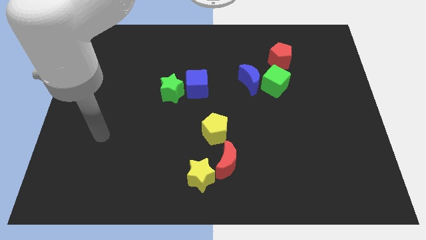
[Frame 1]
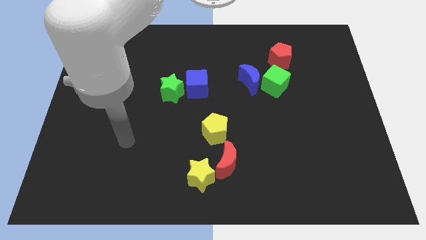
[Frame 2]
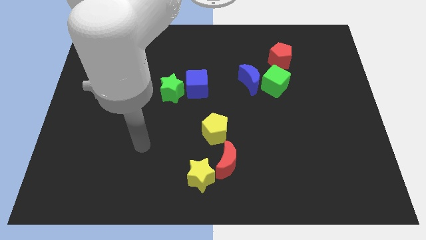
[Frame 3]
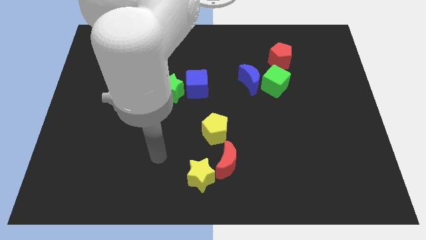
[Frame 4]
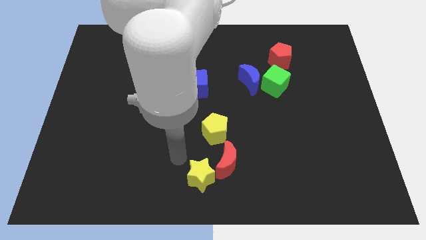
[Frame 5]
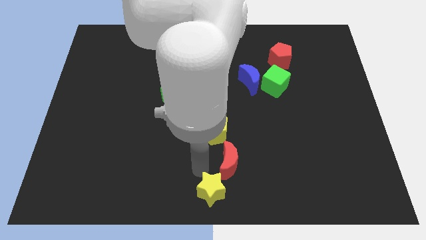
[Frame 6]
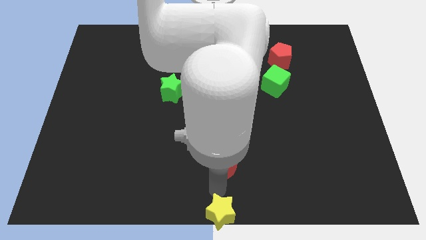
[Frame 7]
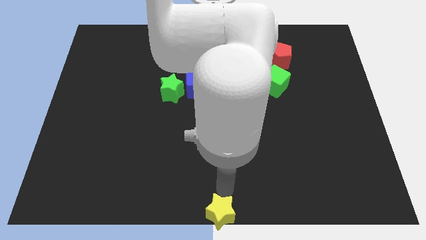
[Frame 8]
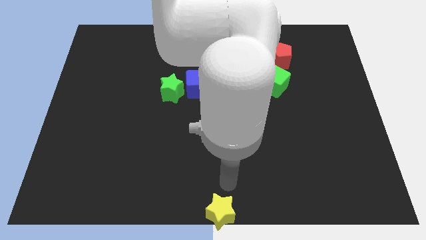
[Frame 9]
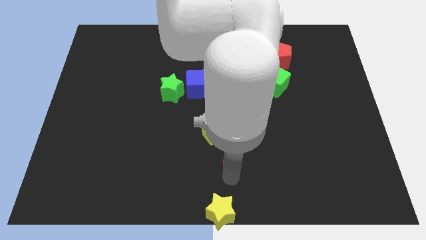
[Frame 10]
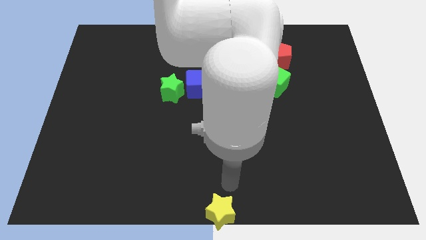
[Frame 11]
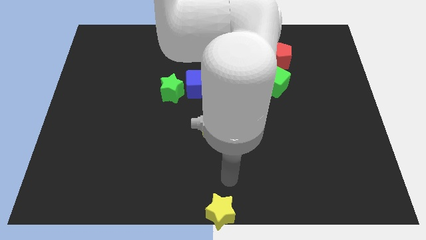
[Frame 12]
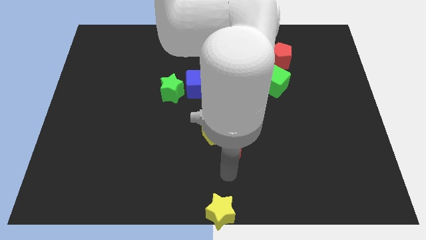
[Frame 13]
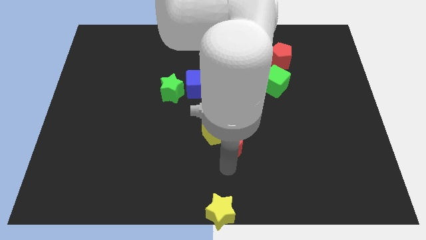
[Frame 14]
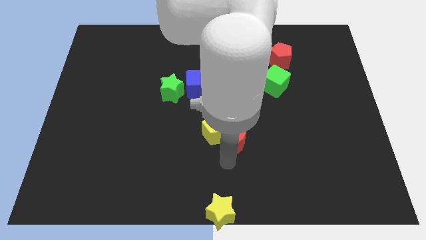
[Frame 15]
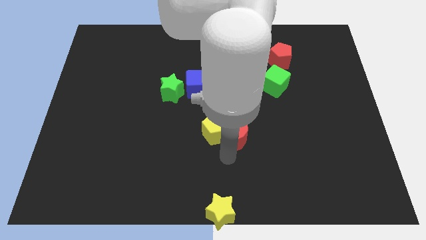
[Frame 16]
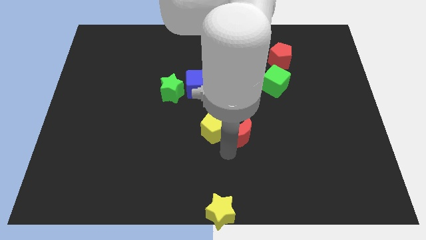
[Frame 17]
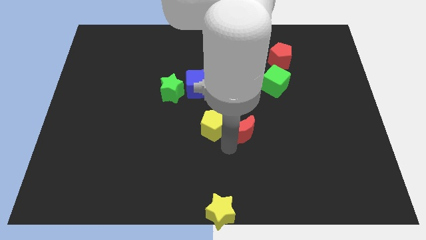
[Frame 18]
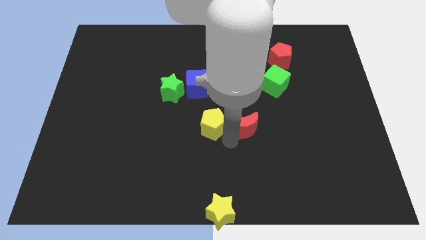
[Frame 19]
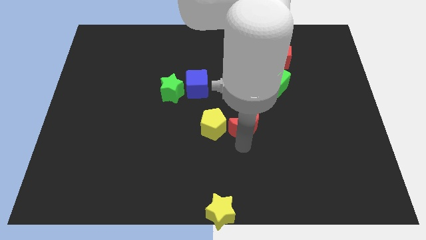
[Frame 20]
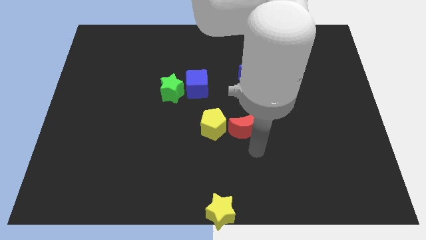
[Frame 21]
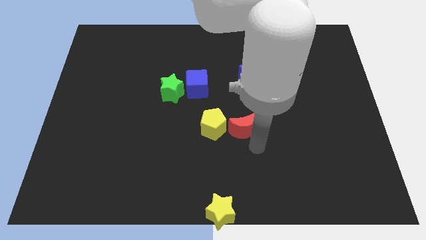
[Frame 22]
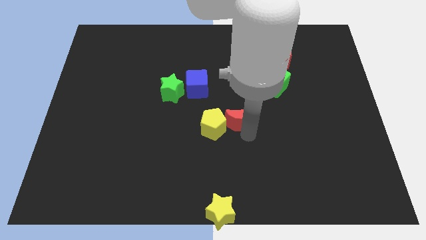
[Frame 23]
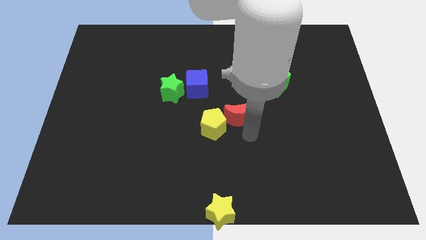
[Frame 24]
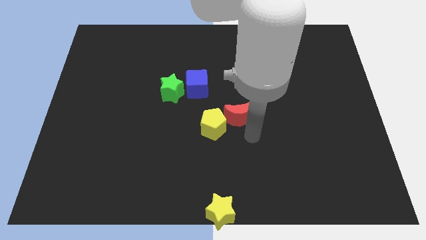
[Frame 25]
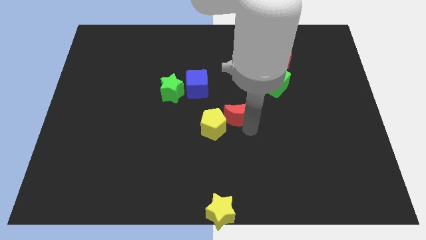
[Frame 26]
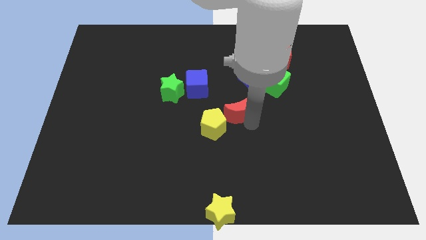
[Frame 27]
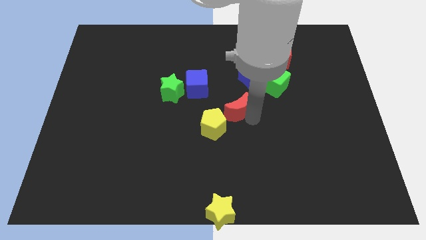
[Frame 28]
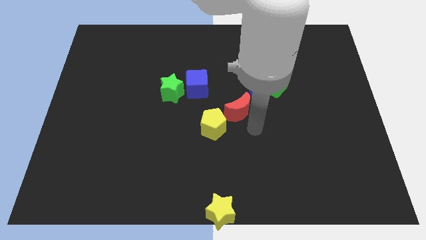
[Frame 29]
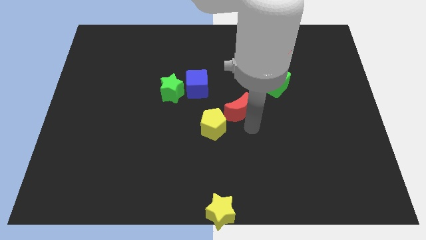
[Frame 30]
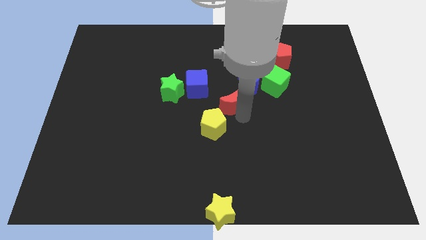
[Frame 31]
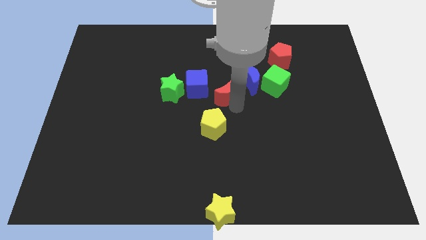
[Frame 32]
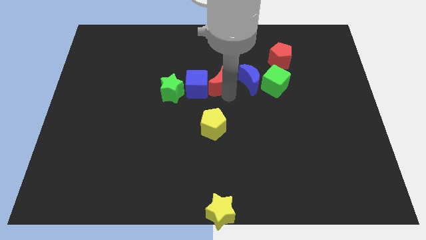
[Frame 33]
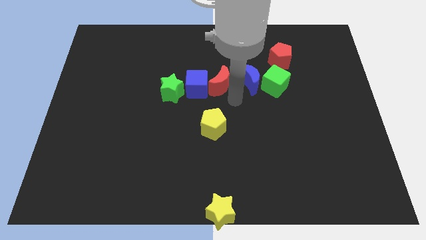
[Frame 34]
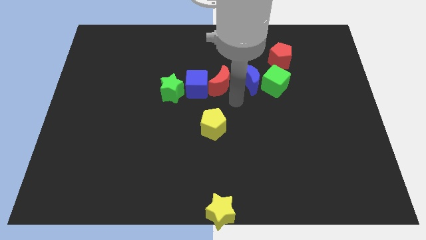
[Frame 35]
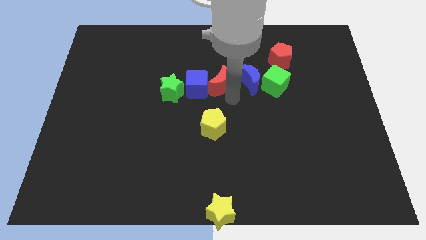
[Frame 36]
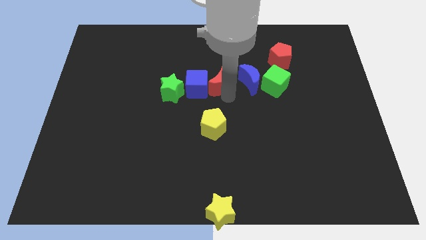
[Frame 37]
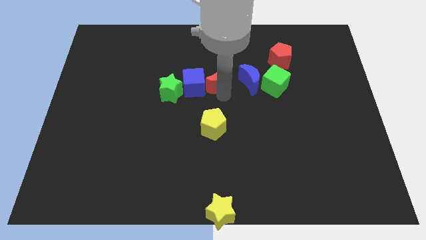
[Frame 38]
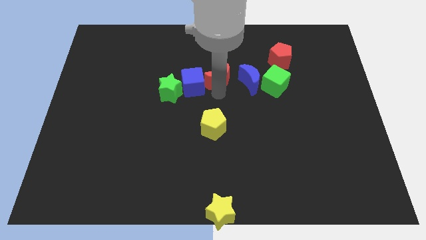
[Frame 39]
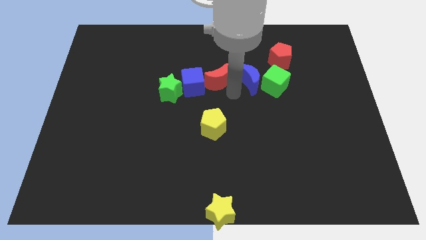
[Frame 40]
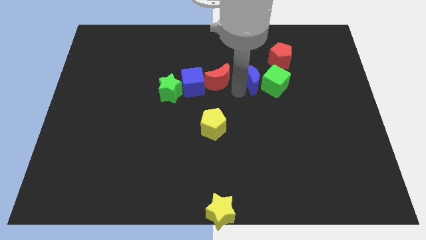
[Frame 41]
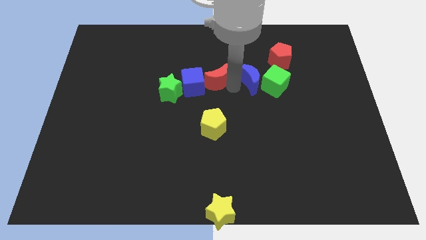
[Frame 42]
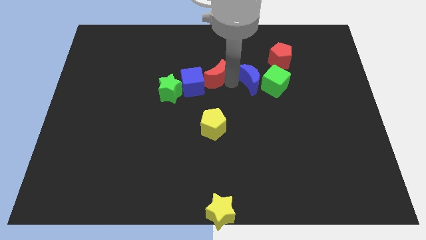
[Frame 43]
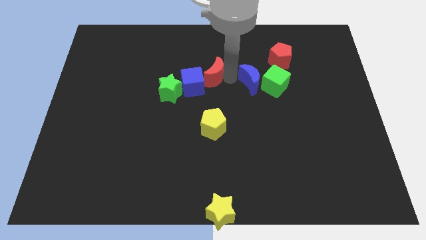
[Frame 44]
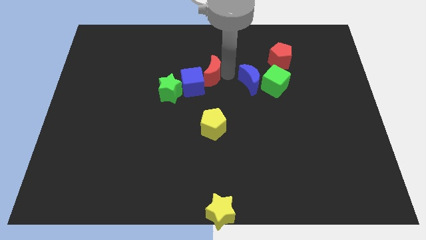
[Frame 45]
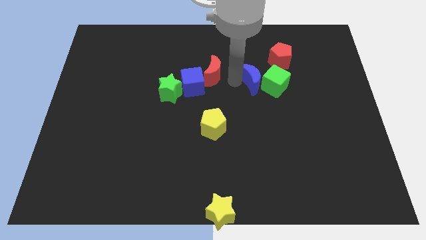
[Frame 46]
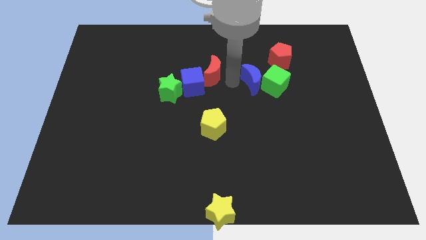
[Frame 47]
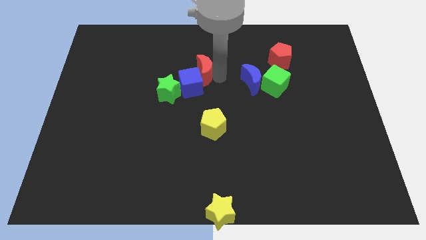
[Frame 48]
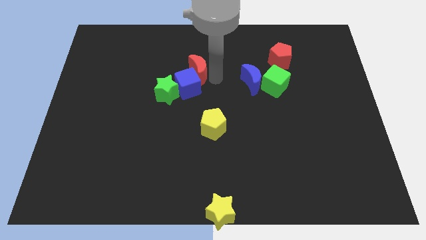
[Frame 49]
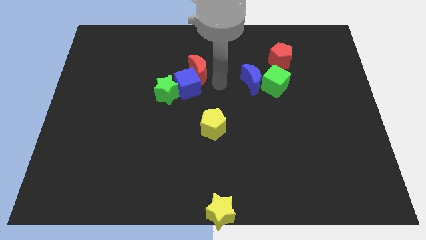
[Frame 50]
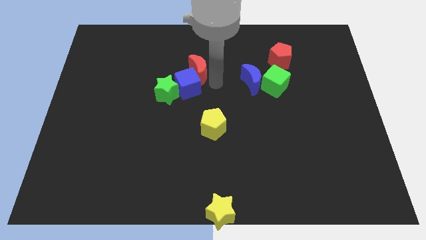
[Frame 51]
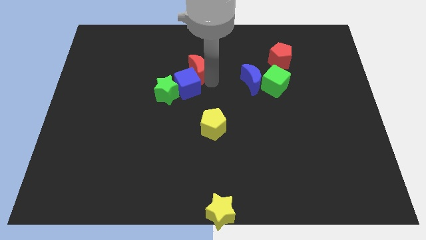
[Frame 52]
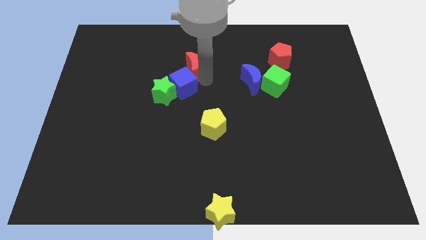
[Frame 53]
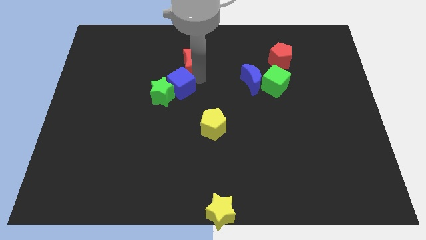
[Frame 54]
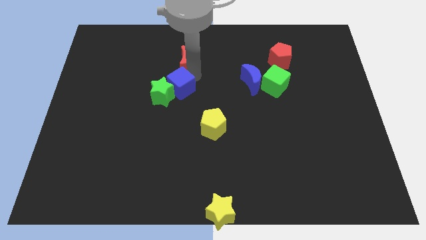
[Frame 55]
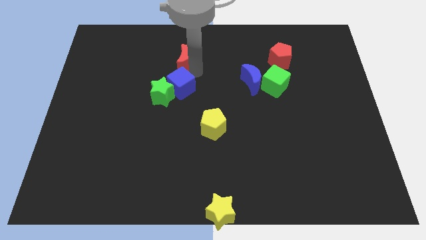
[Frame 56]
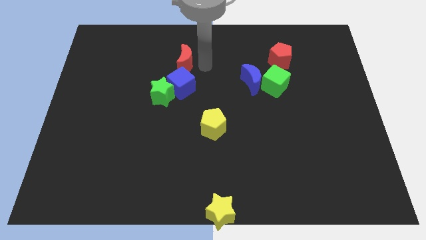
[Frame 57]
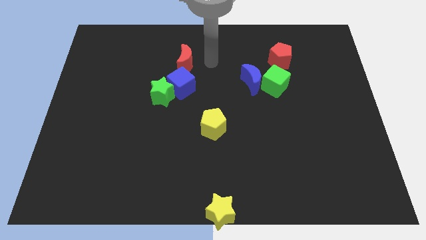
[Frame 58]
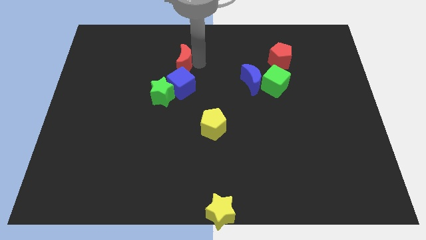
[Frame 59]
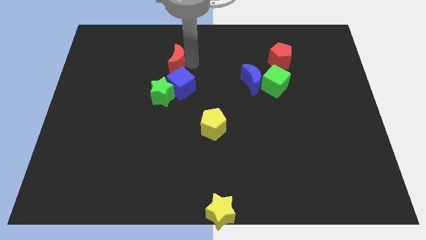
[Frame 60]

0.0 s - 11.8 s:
put the red moon above the green star

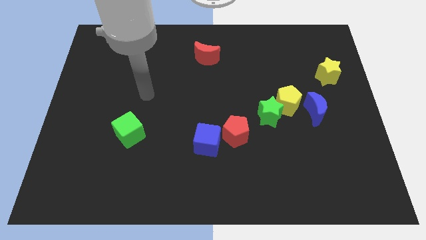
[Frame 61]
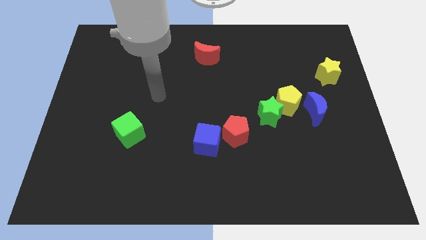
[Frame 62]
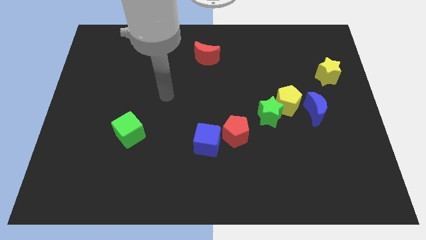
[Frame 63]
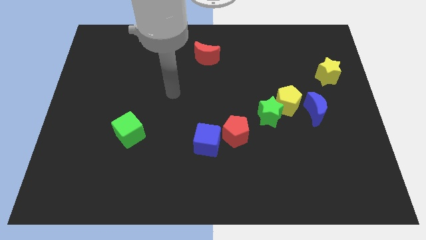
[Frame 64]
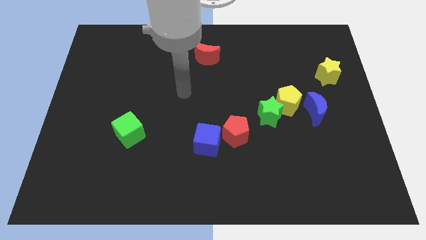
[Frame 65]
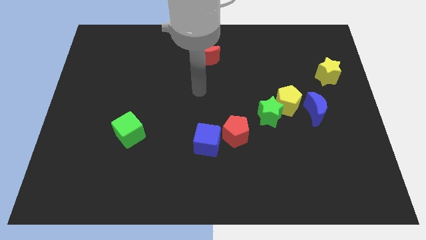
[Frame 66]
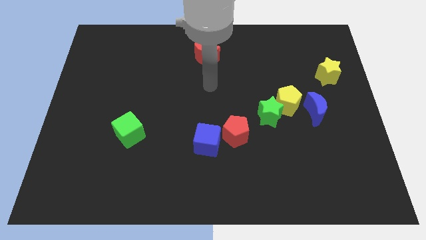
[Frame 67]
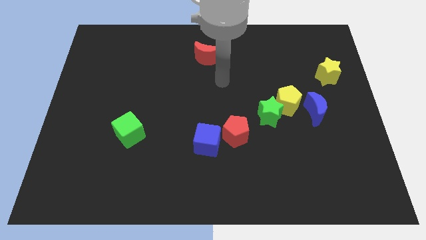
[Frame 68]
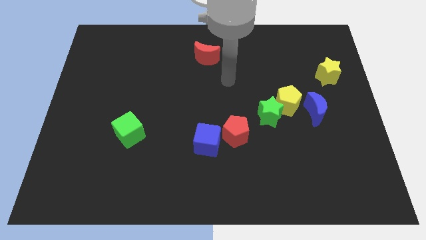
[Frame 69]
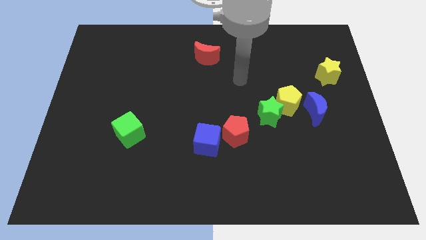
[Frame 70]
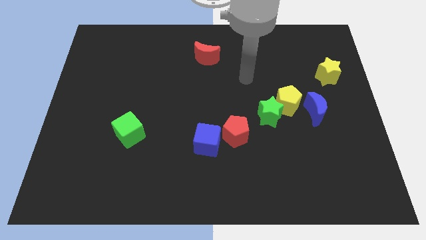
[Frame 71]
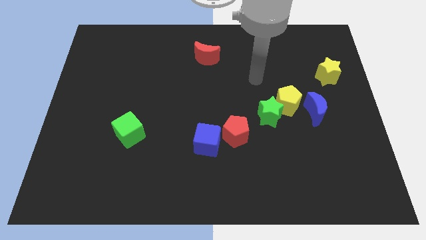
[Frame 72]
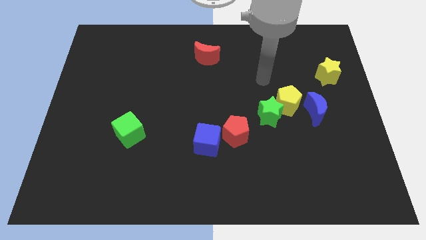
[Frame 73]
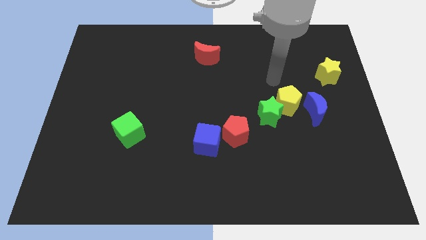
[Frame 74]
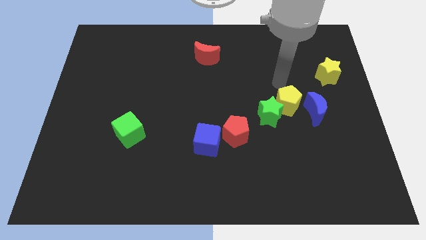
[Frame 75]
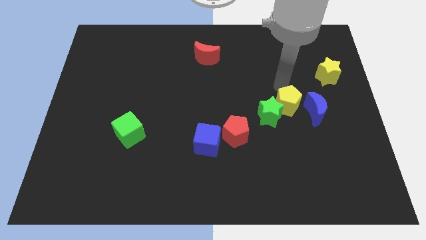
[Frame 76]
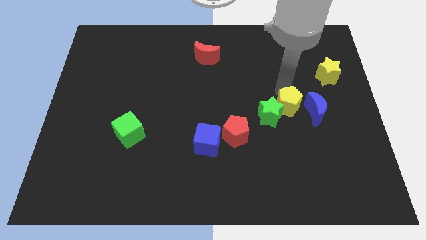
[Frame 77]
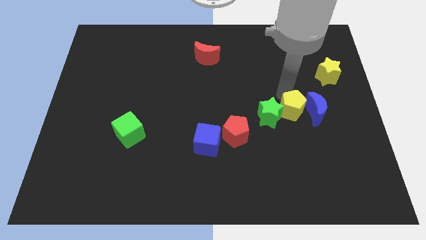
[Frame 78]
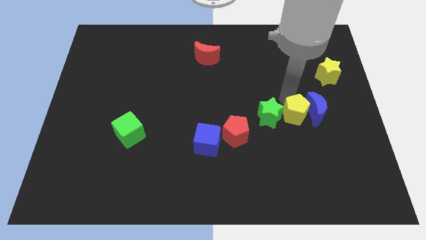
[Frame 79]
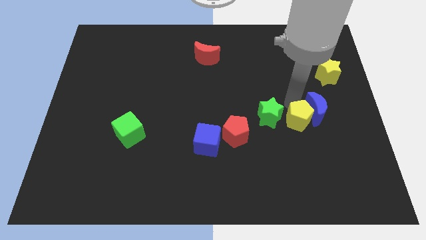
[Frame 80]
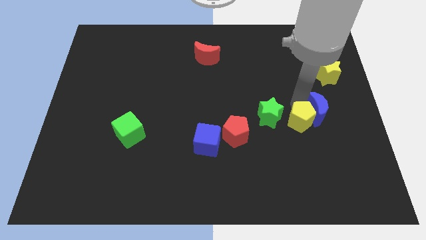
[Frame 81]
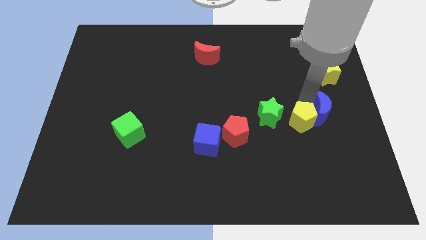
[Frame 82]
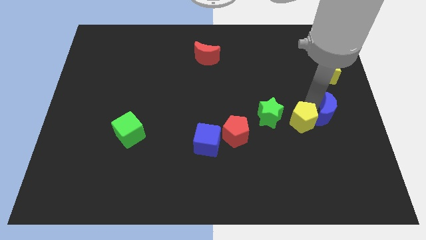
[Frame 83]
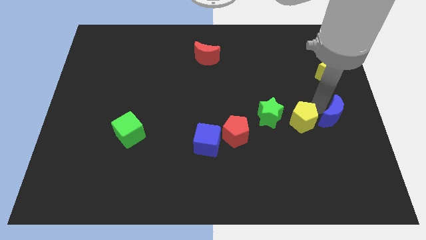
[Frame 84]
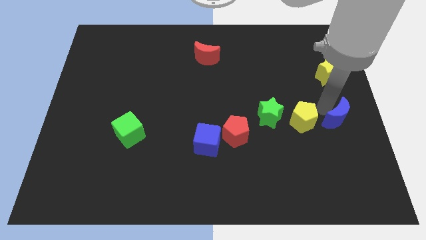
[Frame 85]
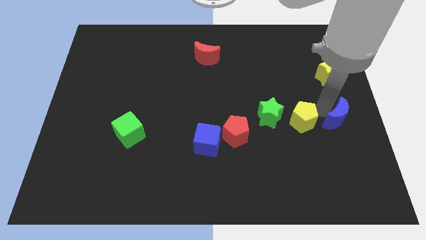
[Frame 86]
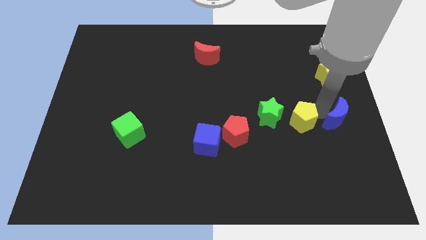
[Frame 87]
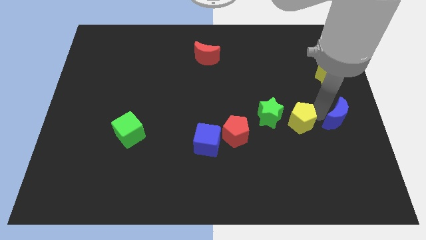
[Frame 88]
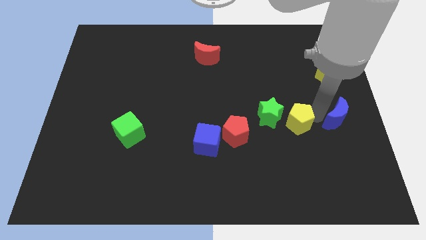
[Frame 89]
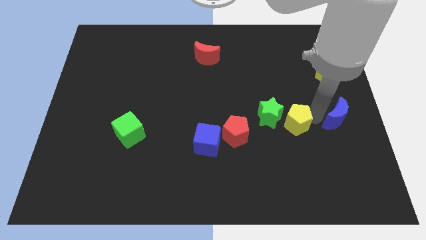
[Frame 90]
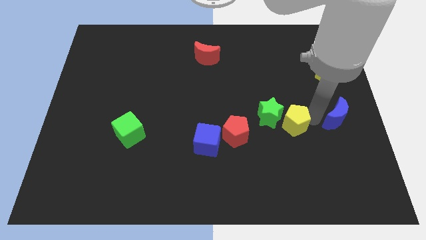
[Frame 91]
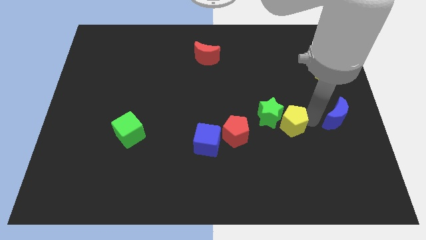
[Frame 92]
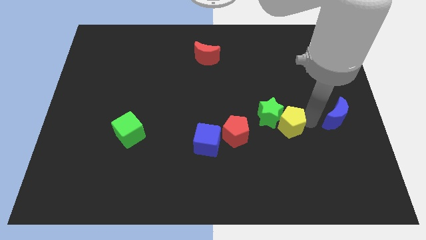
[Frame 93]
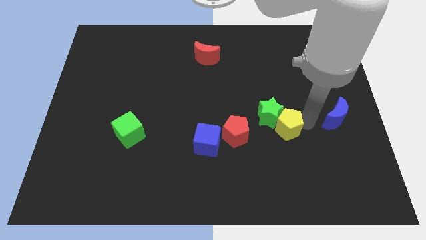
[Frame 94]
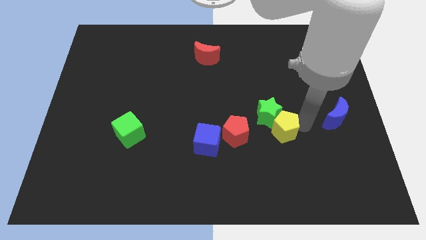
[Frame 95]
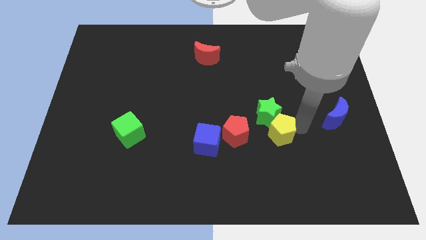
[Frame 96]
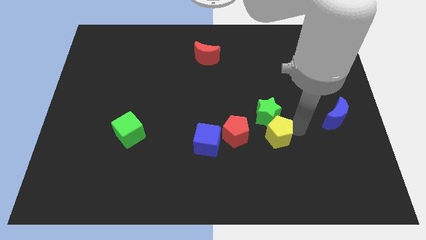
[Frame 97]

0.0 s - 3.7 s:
move the yellow pentagon right of the blue cube
